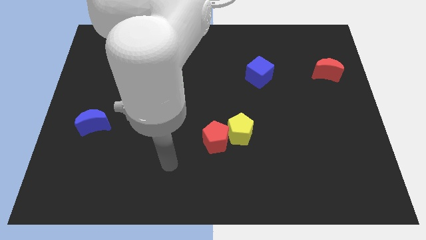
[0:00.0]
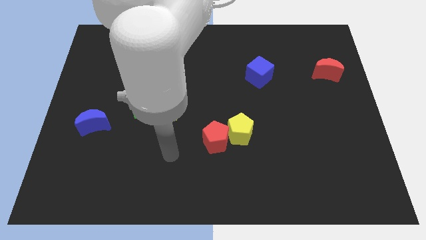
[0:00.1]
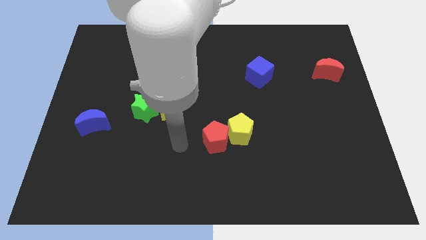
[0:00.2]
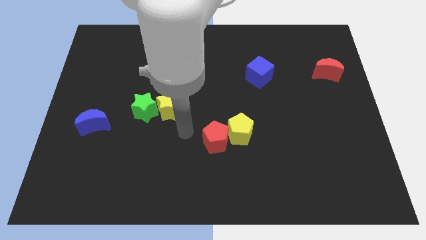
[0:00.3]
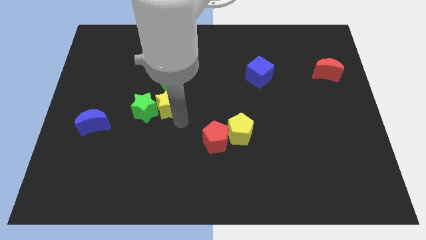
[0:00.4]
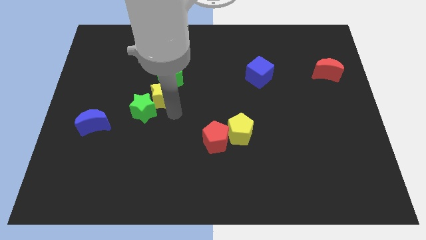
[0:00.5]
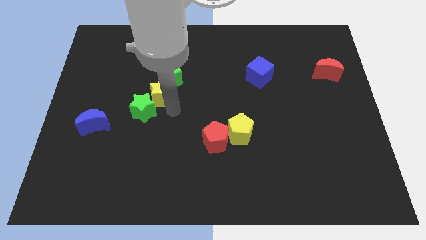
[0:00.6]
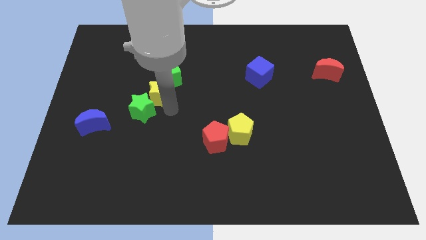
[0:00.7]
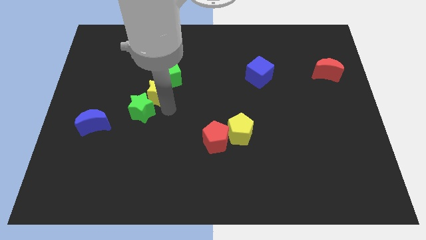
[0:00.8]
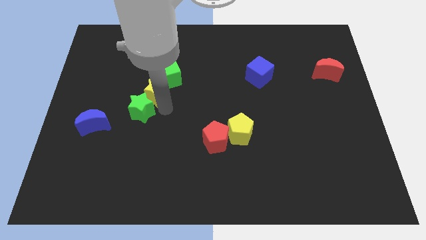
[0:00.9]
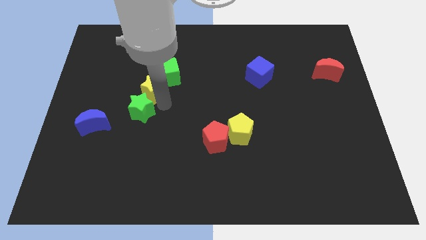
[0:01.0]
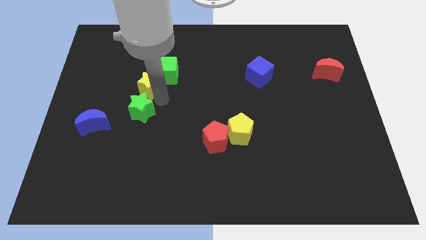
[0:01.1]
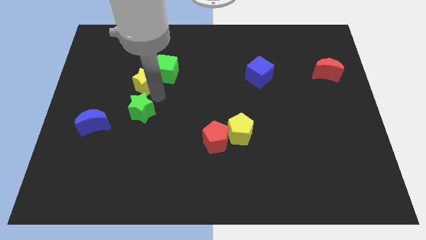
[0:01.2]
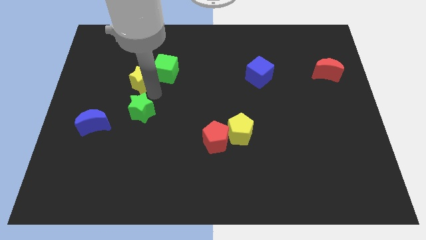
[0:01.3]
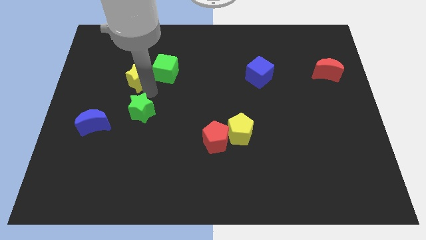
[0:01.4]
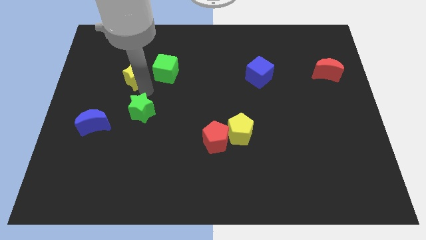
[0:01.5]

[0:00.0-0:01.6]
move the green star away from the yellow star

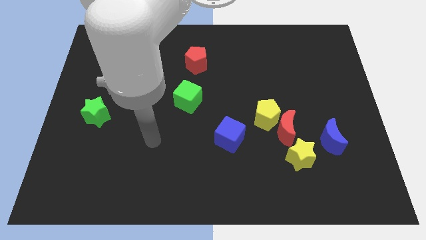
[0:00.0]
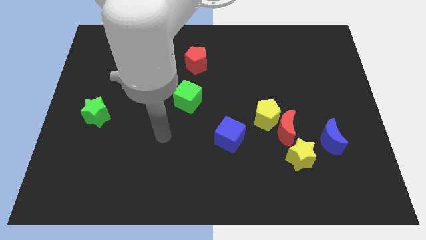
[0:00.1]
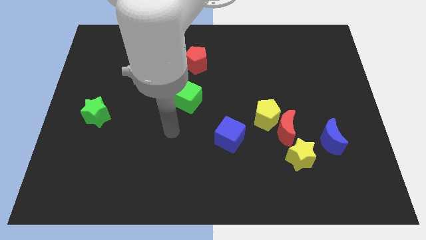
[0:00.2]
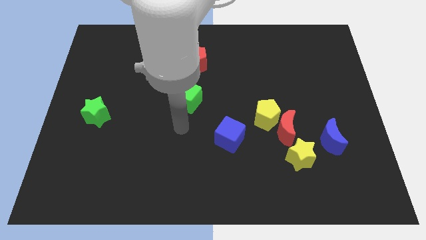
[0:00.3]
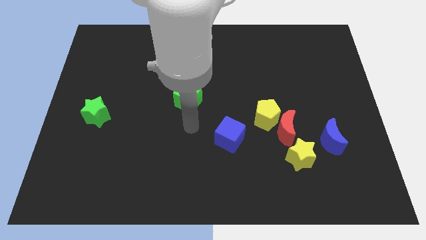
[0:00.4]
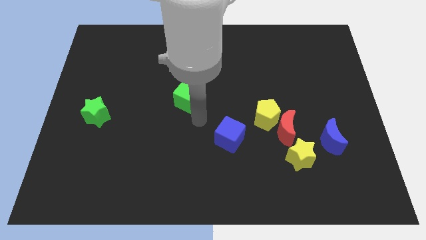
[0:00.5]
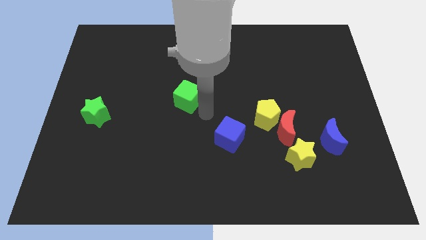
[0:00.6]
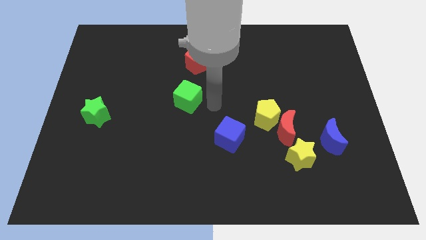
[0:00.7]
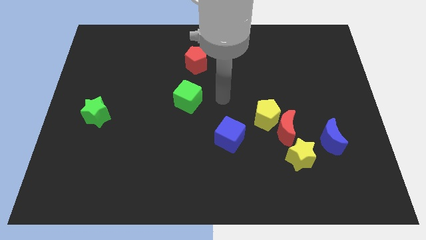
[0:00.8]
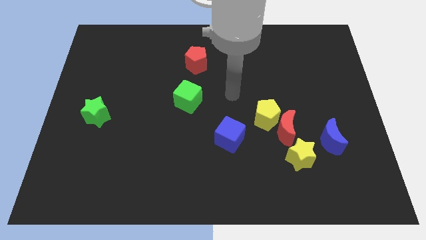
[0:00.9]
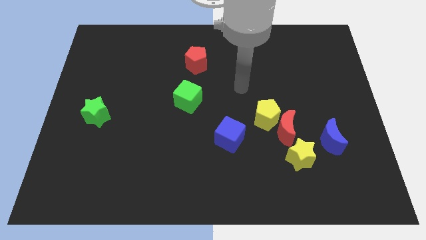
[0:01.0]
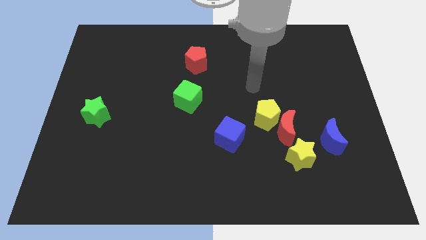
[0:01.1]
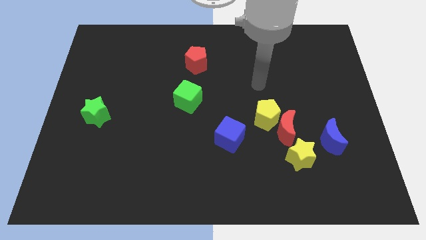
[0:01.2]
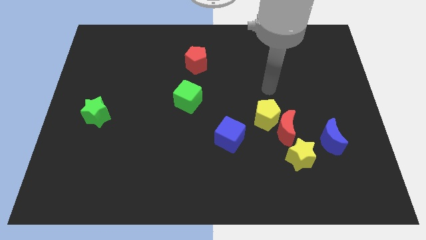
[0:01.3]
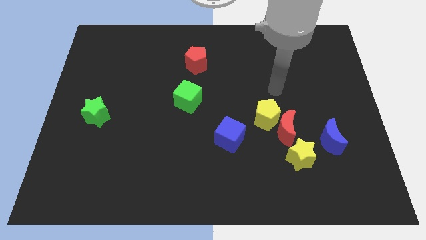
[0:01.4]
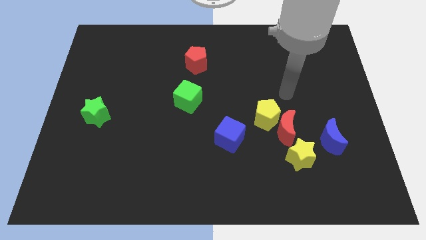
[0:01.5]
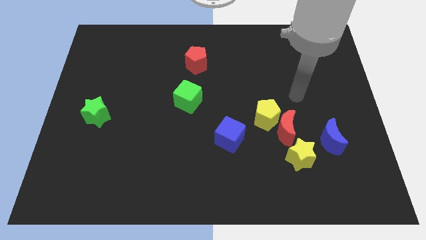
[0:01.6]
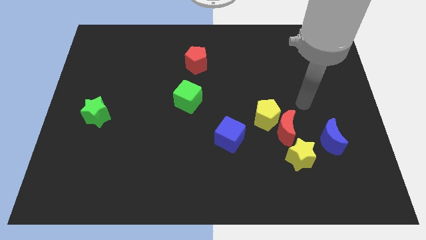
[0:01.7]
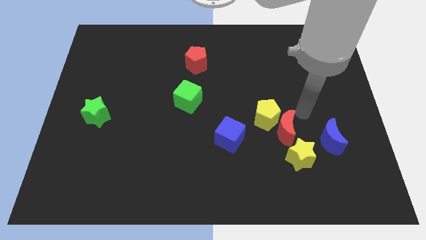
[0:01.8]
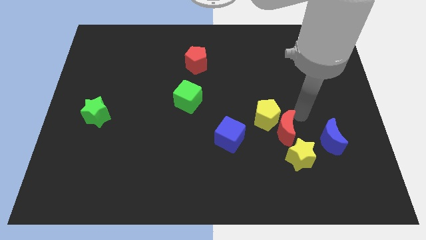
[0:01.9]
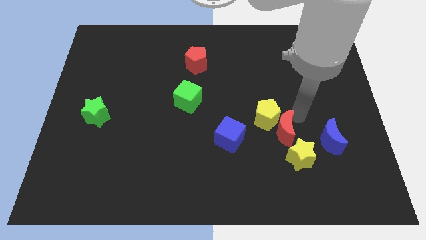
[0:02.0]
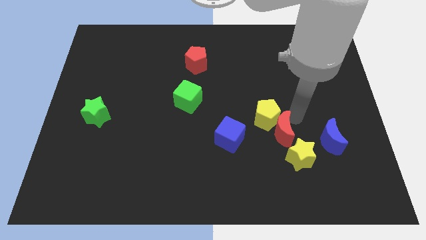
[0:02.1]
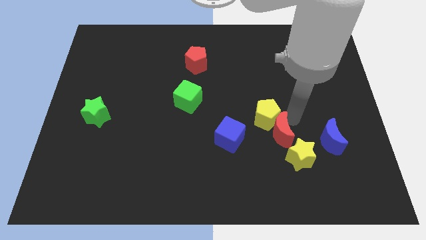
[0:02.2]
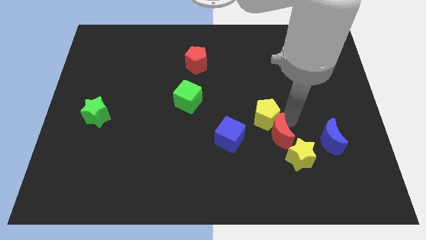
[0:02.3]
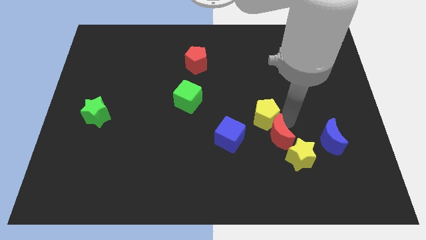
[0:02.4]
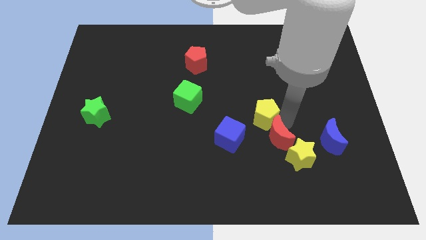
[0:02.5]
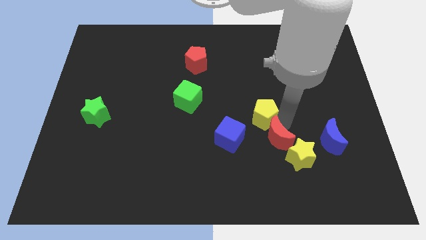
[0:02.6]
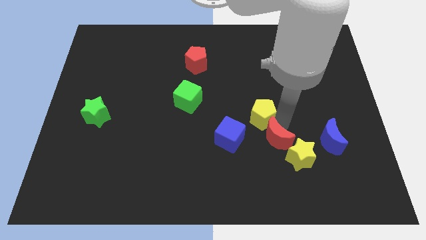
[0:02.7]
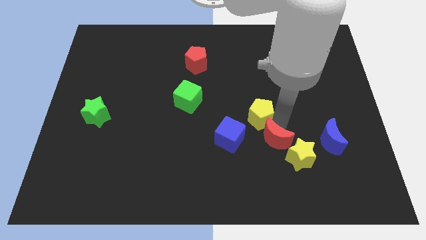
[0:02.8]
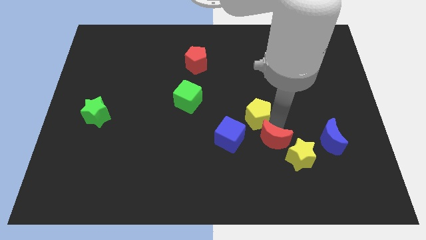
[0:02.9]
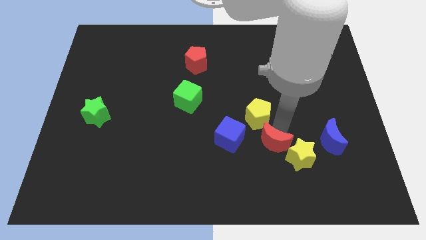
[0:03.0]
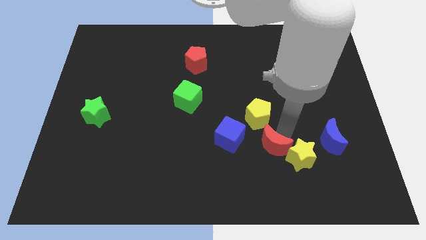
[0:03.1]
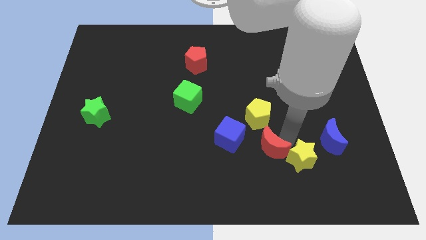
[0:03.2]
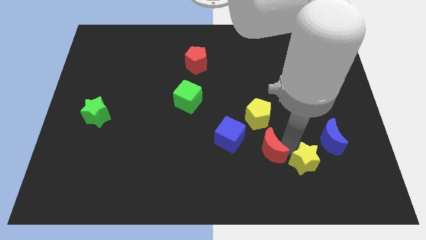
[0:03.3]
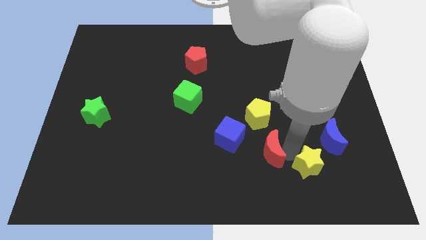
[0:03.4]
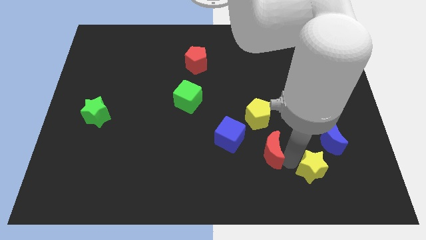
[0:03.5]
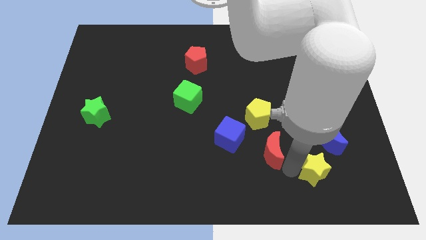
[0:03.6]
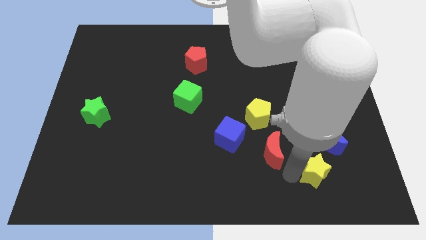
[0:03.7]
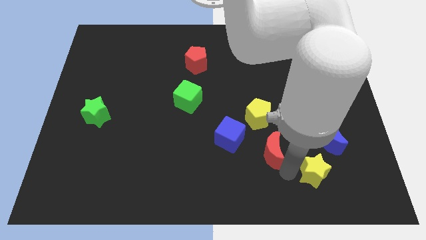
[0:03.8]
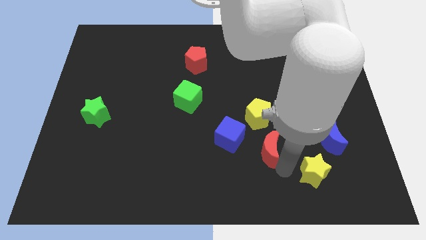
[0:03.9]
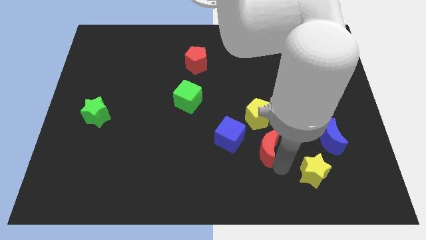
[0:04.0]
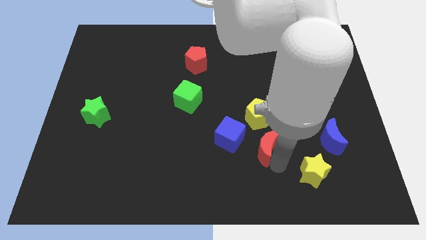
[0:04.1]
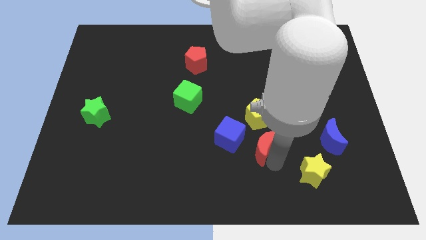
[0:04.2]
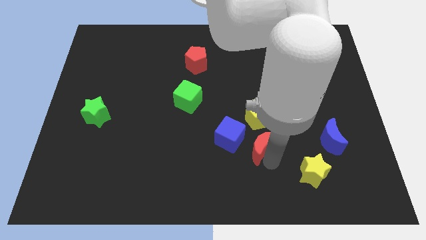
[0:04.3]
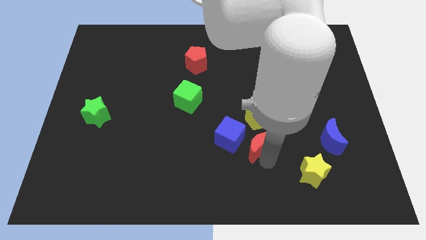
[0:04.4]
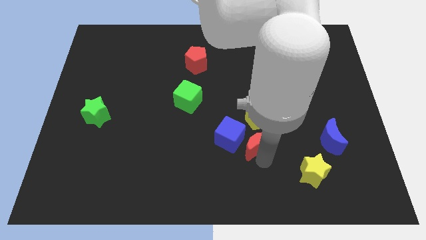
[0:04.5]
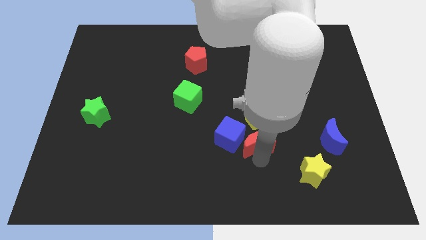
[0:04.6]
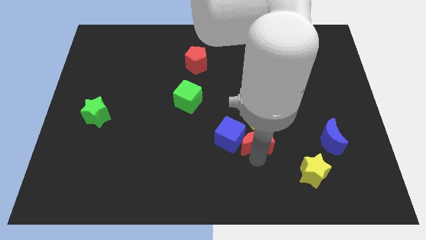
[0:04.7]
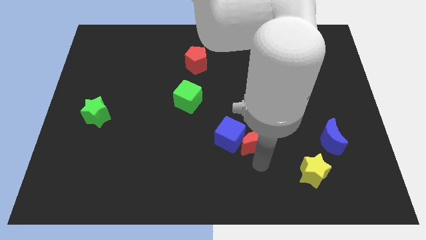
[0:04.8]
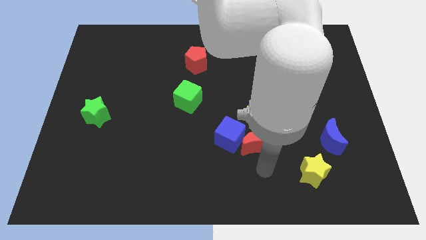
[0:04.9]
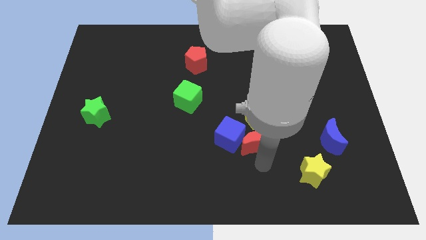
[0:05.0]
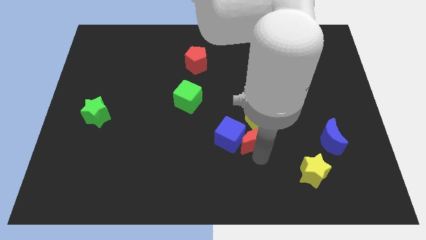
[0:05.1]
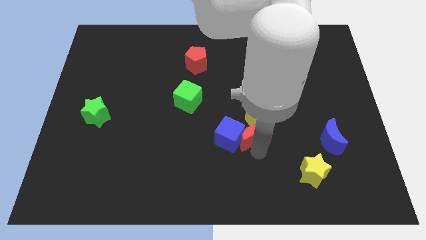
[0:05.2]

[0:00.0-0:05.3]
separate the red moon from the group of blocks

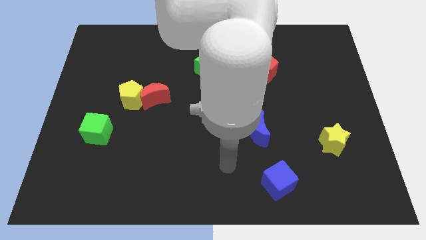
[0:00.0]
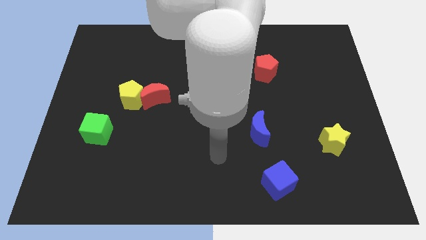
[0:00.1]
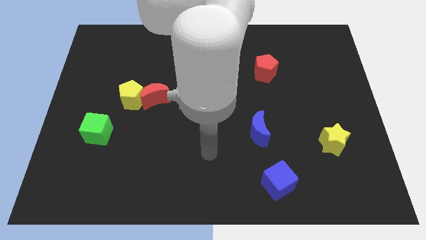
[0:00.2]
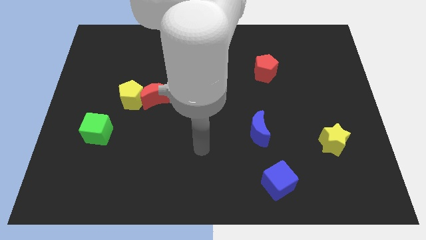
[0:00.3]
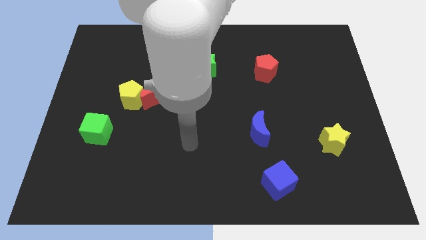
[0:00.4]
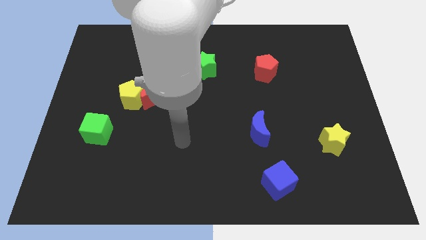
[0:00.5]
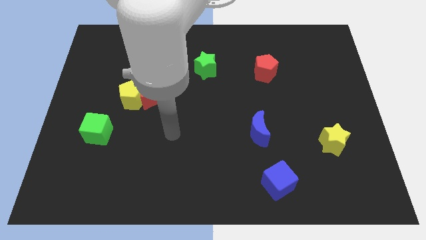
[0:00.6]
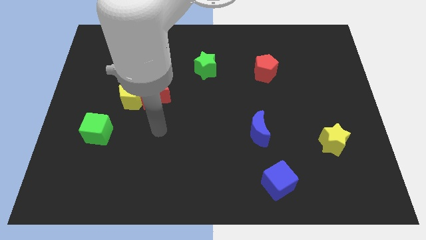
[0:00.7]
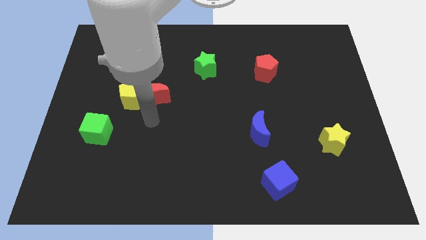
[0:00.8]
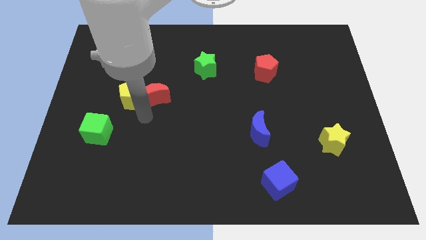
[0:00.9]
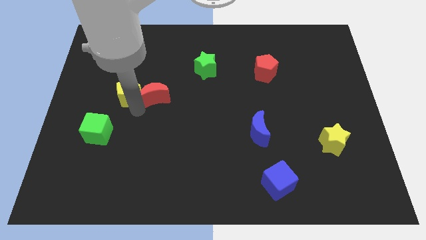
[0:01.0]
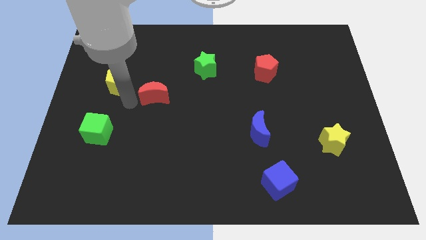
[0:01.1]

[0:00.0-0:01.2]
move the red moon away from the yellow pentagon

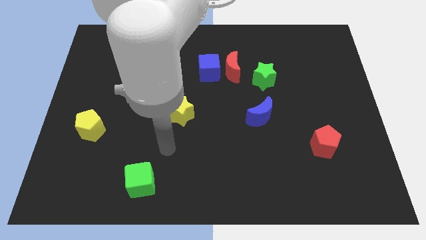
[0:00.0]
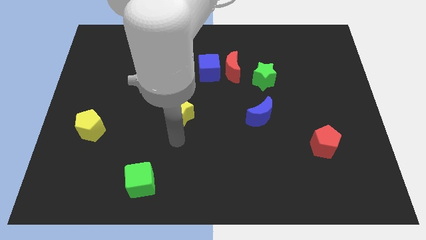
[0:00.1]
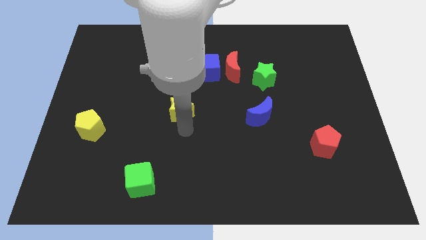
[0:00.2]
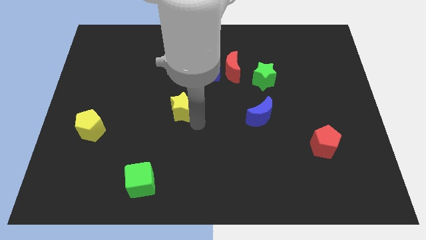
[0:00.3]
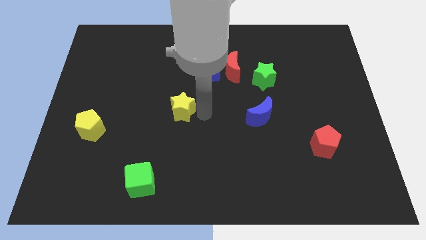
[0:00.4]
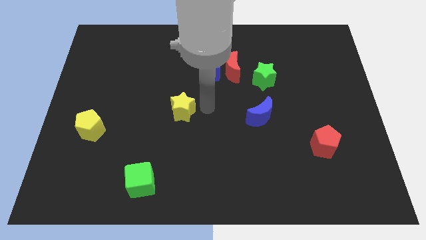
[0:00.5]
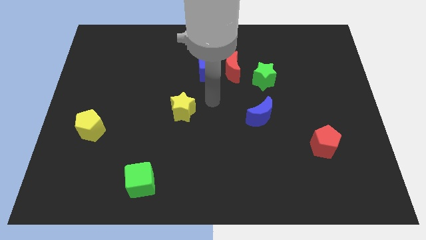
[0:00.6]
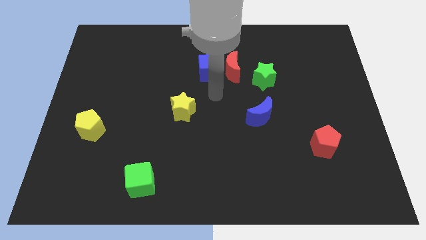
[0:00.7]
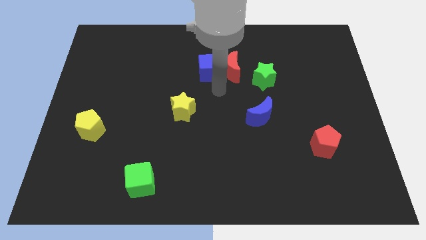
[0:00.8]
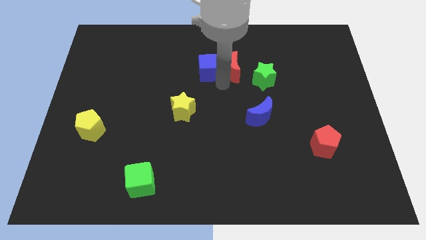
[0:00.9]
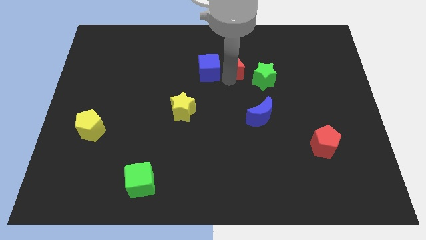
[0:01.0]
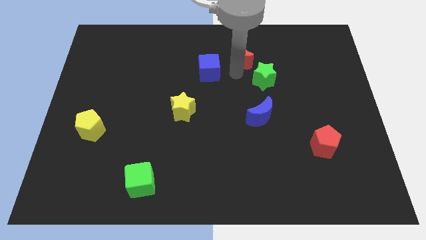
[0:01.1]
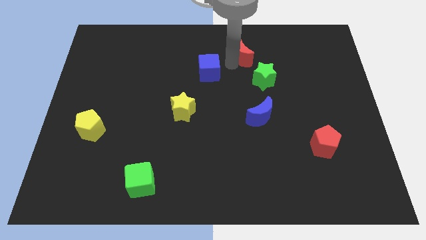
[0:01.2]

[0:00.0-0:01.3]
pull the blue cube apart from the red moon
